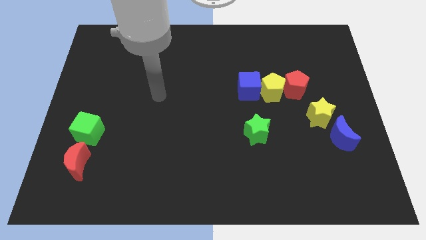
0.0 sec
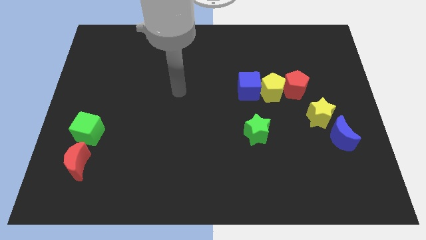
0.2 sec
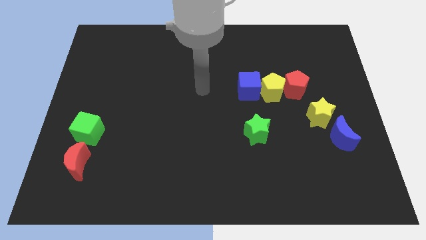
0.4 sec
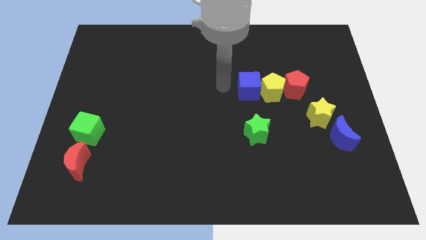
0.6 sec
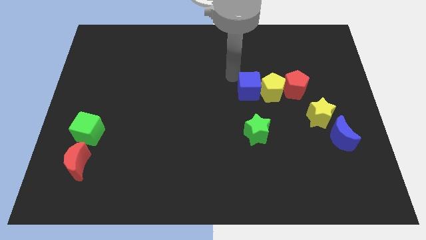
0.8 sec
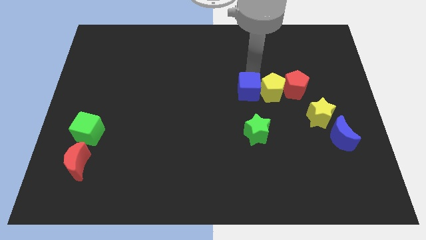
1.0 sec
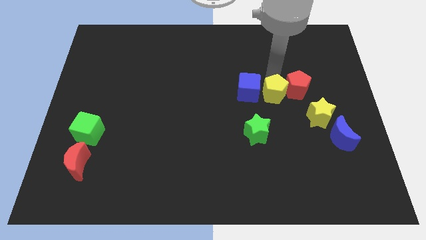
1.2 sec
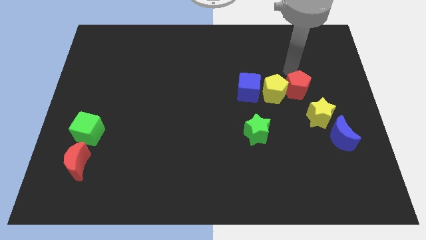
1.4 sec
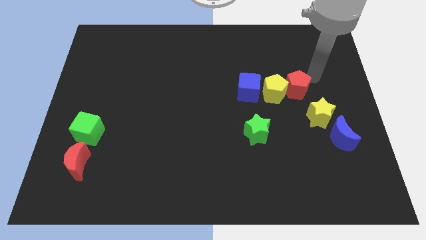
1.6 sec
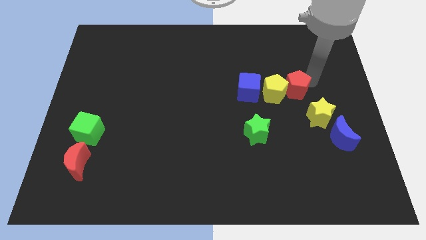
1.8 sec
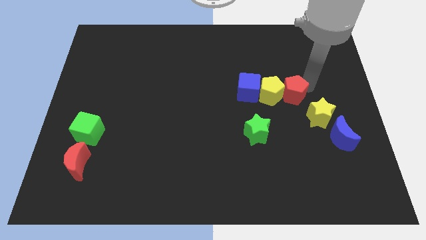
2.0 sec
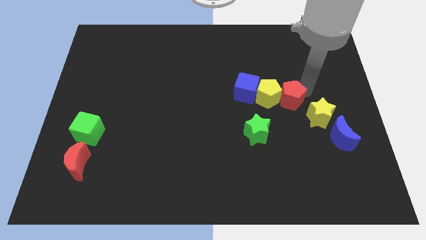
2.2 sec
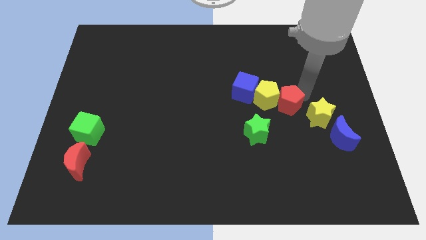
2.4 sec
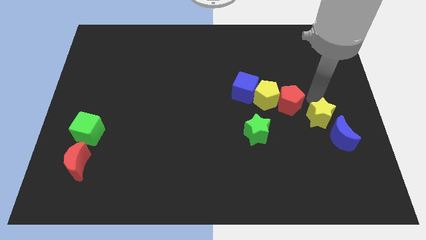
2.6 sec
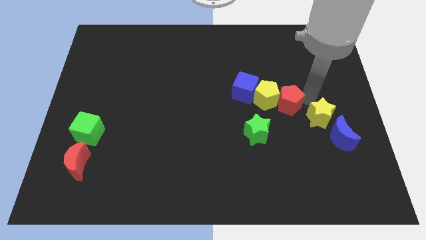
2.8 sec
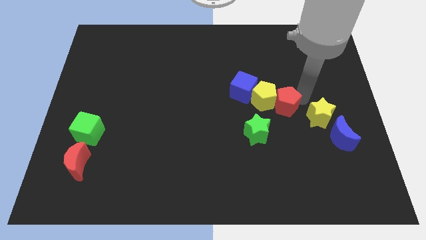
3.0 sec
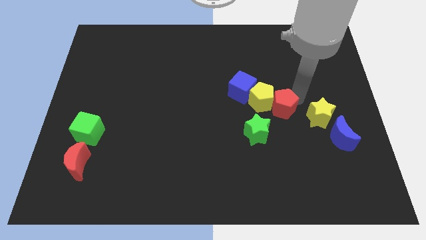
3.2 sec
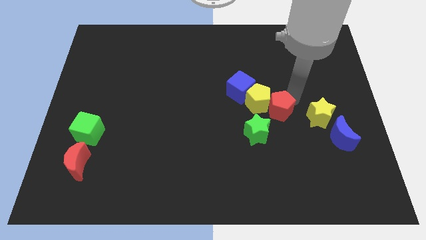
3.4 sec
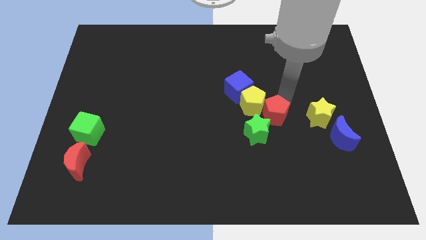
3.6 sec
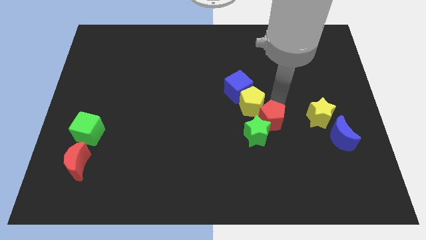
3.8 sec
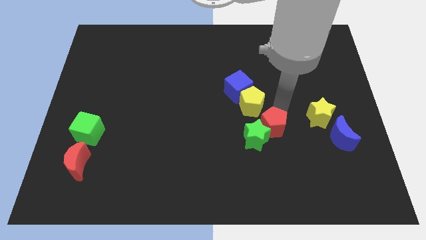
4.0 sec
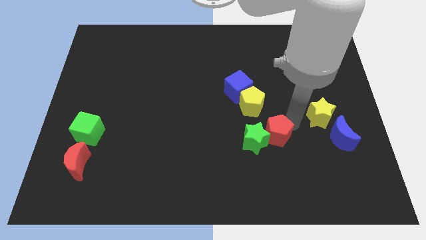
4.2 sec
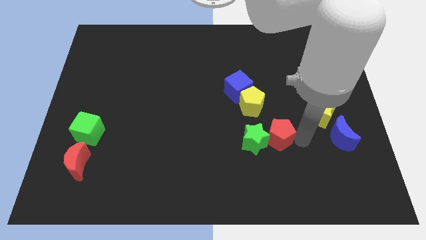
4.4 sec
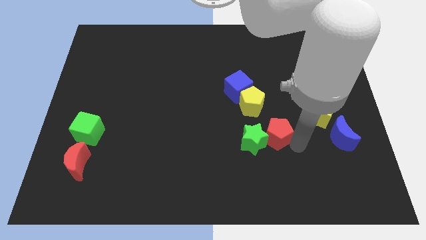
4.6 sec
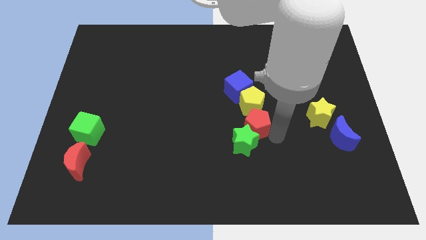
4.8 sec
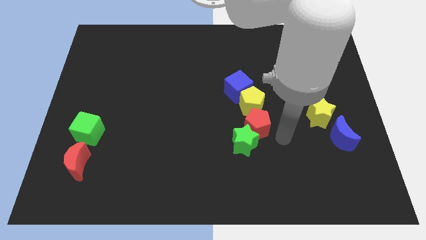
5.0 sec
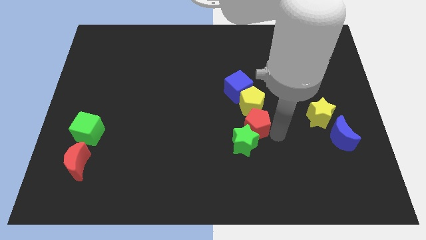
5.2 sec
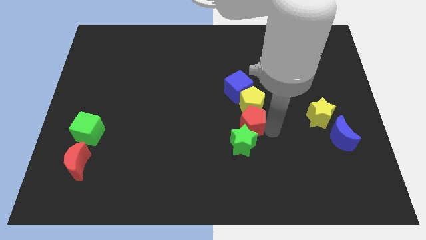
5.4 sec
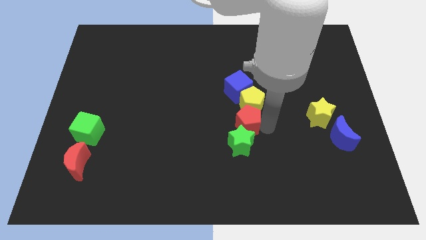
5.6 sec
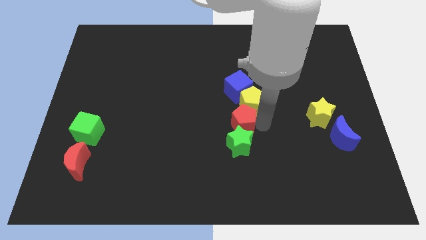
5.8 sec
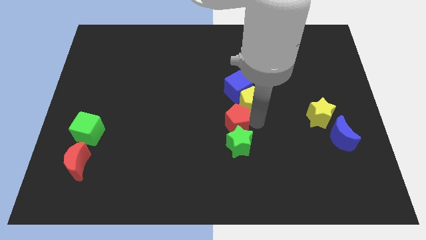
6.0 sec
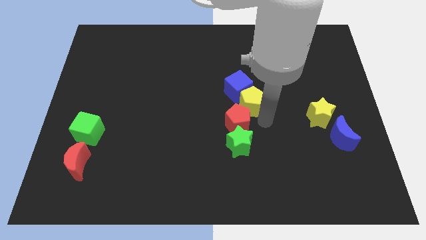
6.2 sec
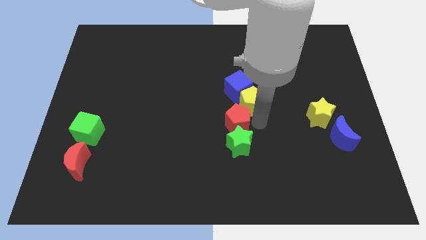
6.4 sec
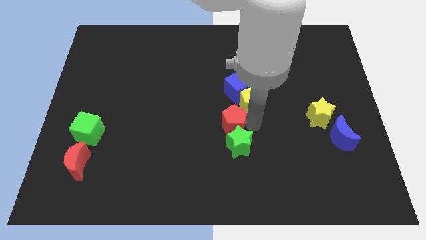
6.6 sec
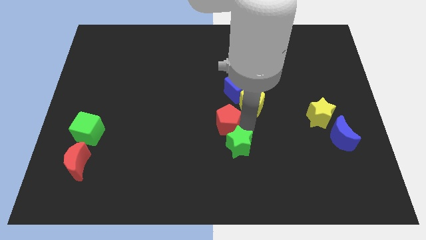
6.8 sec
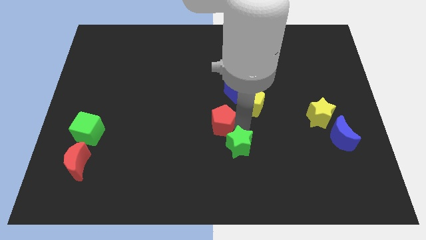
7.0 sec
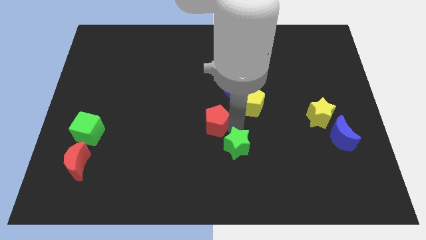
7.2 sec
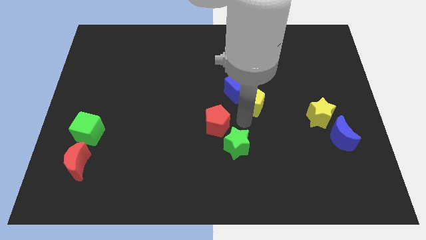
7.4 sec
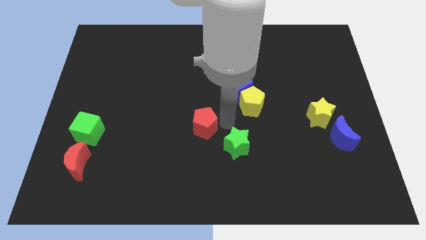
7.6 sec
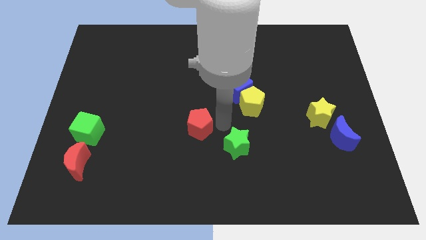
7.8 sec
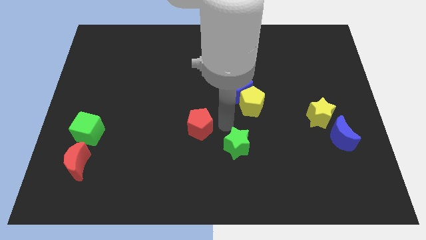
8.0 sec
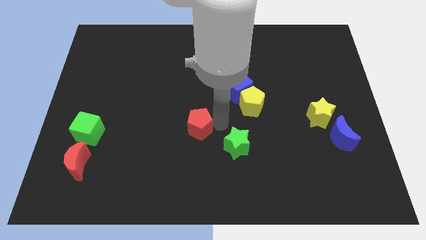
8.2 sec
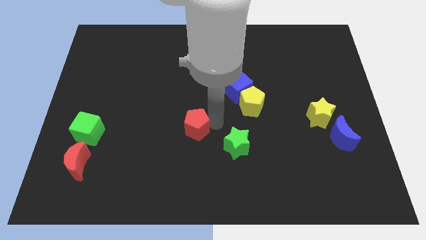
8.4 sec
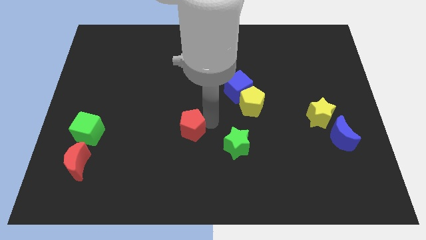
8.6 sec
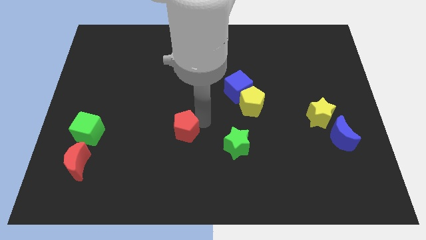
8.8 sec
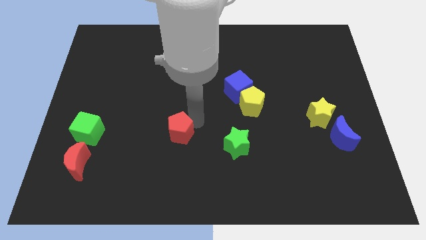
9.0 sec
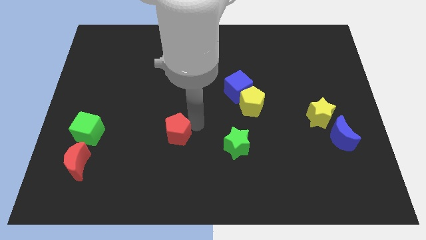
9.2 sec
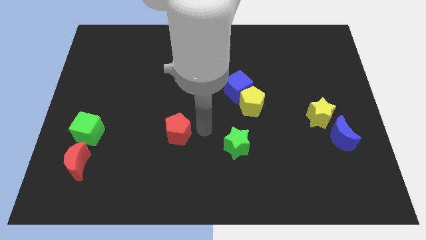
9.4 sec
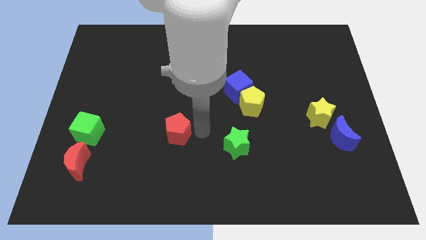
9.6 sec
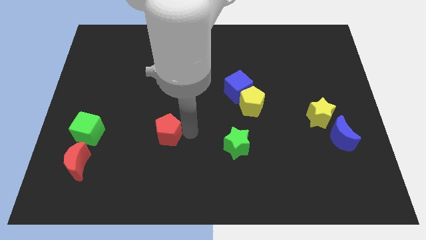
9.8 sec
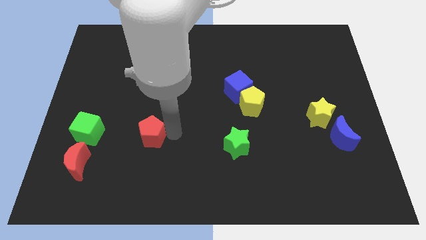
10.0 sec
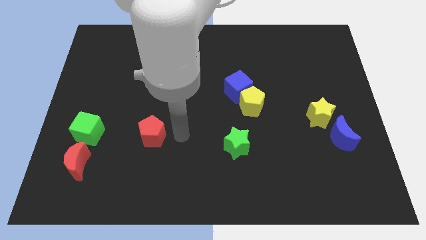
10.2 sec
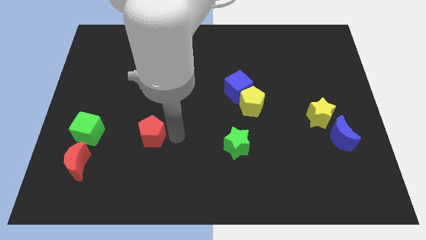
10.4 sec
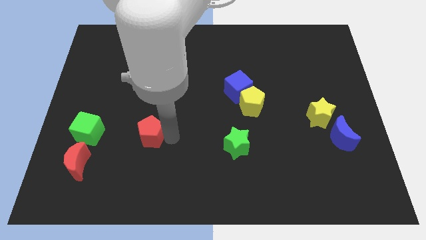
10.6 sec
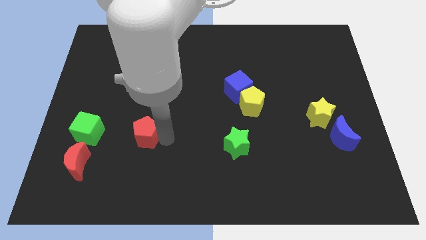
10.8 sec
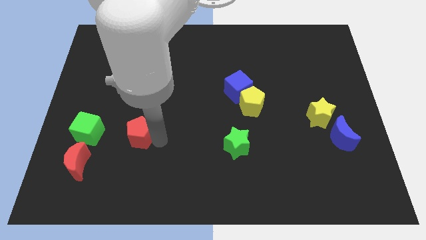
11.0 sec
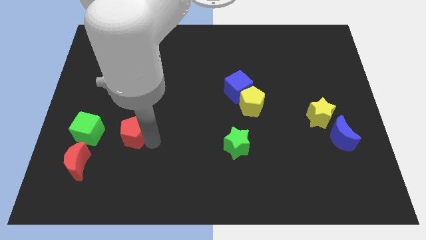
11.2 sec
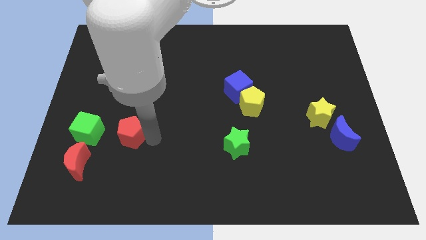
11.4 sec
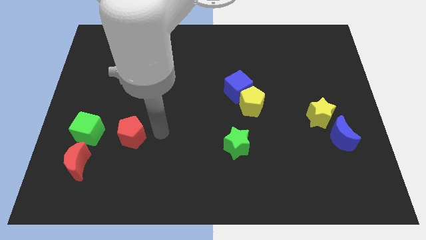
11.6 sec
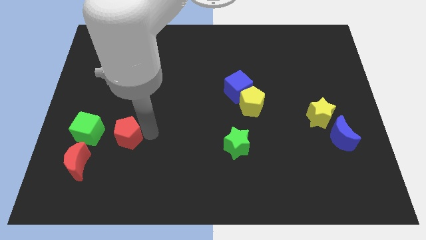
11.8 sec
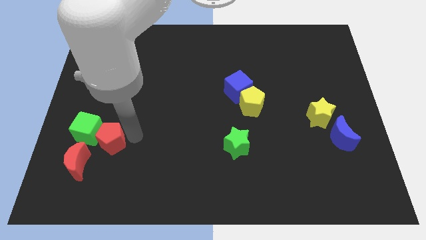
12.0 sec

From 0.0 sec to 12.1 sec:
slide the red pentagon close to the green cube
